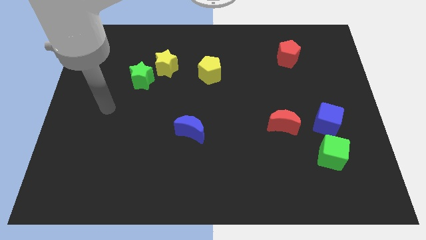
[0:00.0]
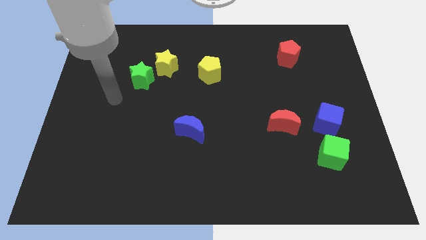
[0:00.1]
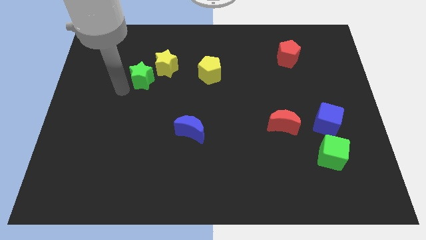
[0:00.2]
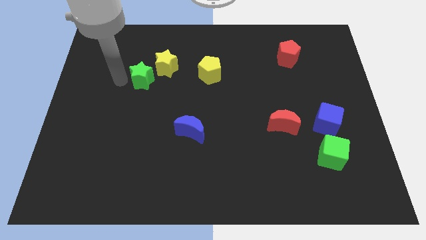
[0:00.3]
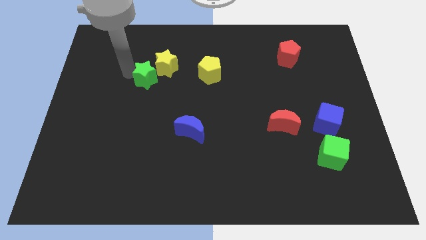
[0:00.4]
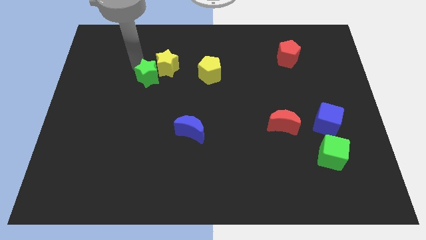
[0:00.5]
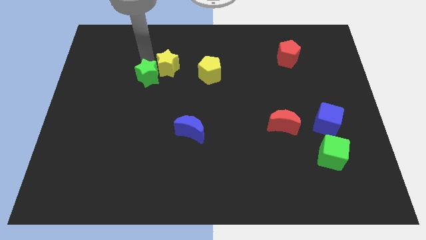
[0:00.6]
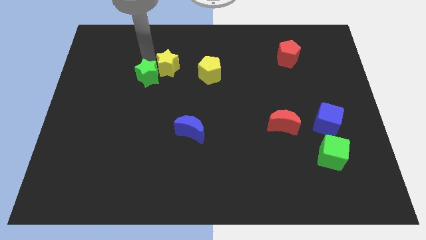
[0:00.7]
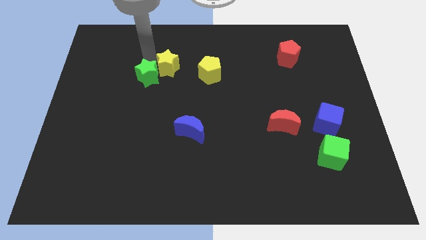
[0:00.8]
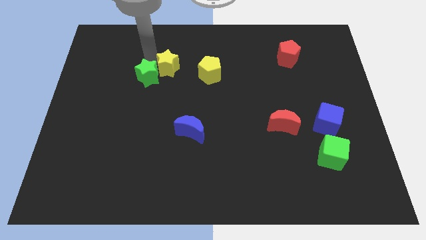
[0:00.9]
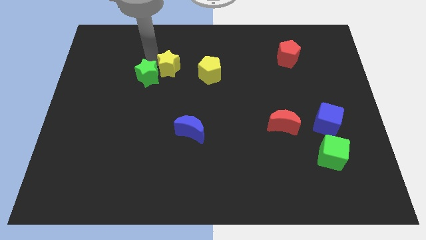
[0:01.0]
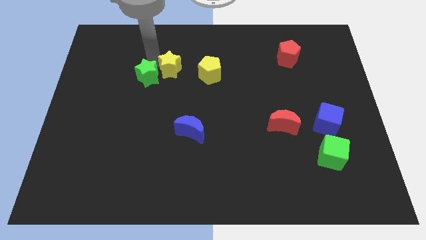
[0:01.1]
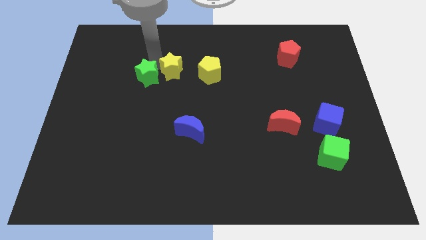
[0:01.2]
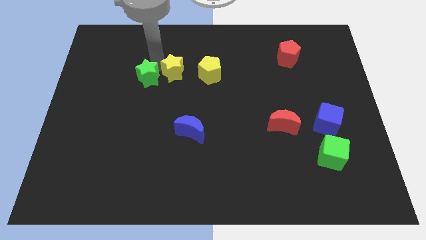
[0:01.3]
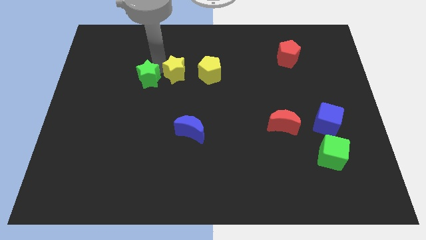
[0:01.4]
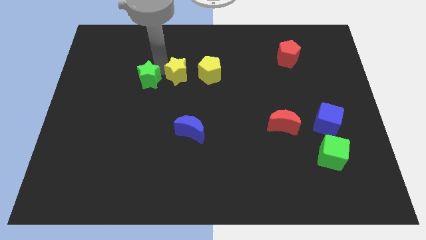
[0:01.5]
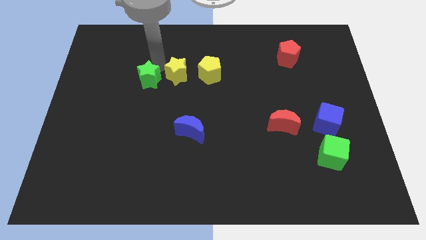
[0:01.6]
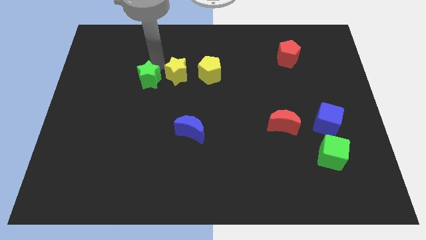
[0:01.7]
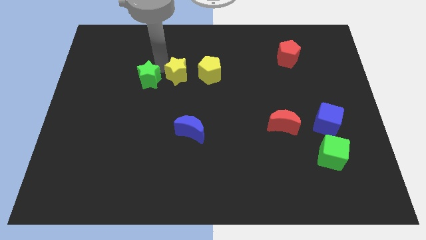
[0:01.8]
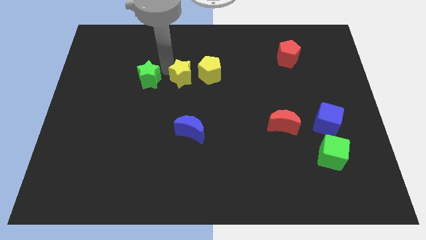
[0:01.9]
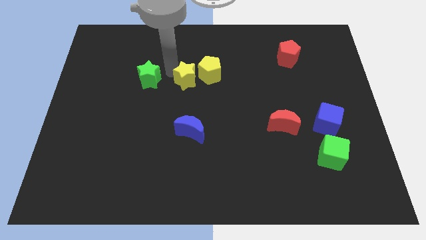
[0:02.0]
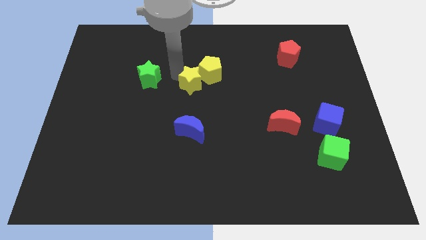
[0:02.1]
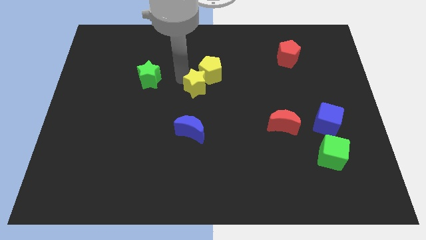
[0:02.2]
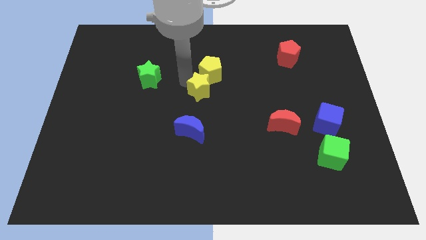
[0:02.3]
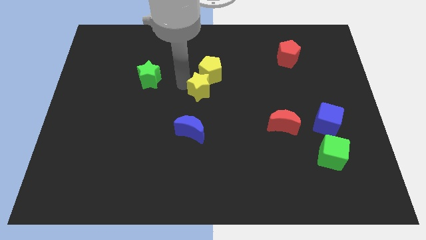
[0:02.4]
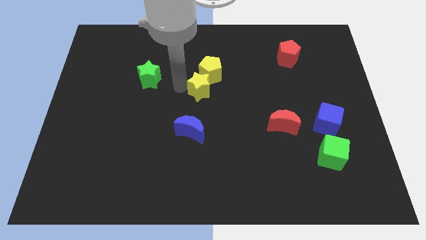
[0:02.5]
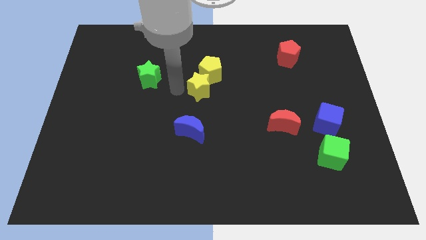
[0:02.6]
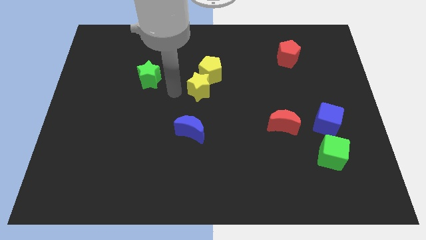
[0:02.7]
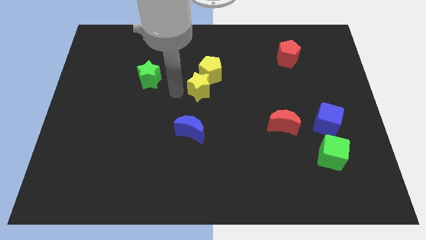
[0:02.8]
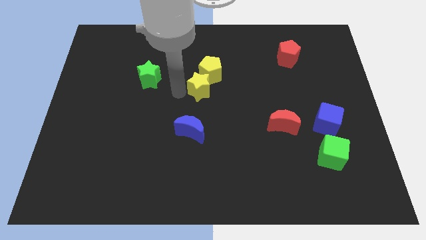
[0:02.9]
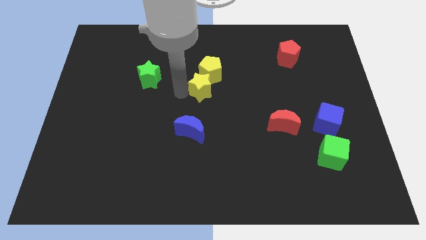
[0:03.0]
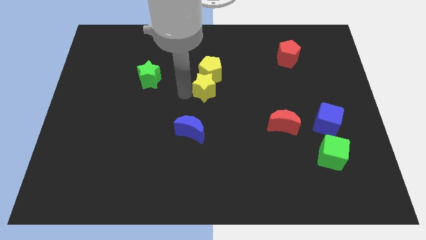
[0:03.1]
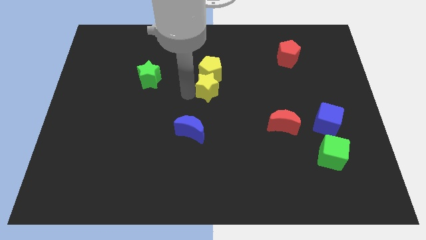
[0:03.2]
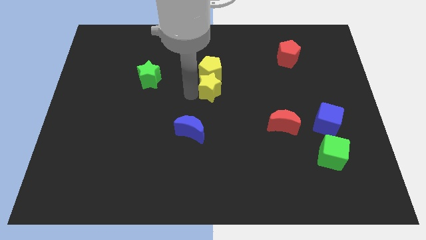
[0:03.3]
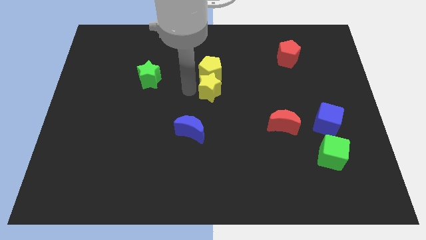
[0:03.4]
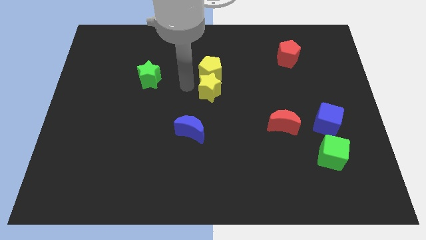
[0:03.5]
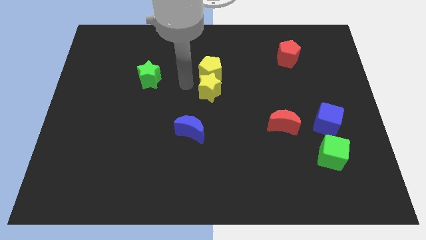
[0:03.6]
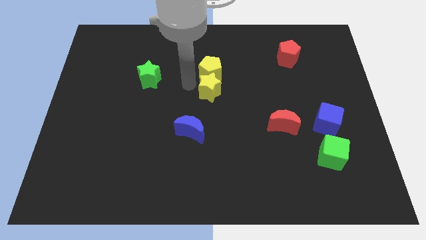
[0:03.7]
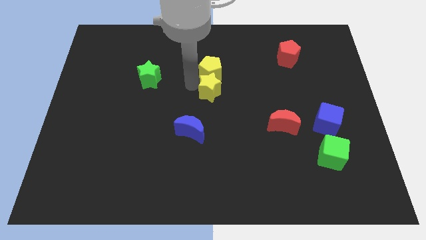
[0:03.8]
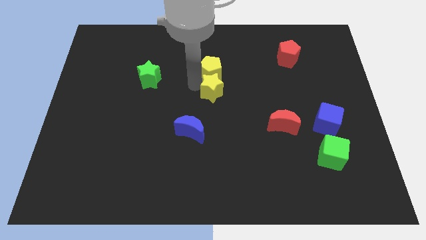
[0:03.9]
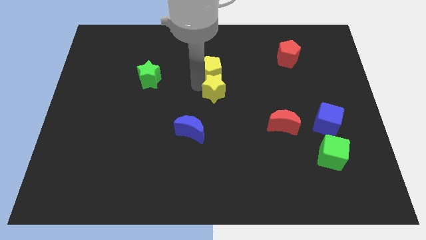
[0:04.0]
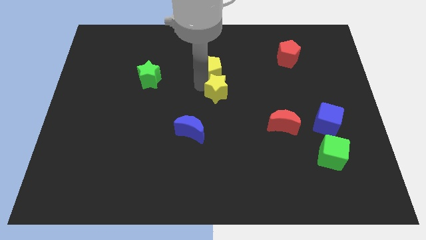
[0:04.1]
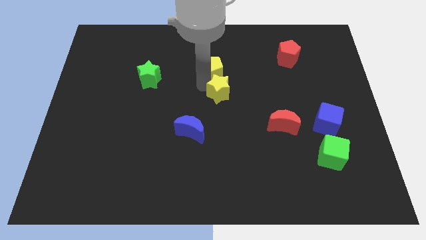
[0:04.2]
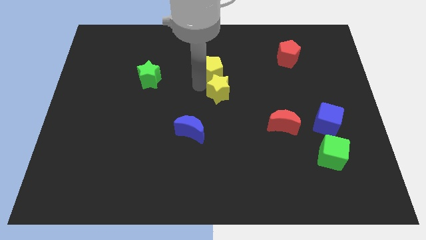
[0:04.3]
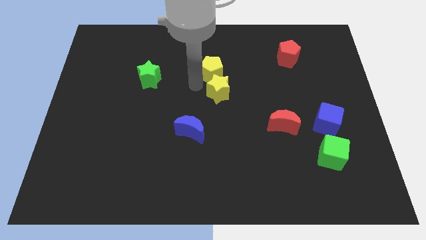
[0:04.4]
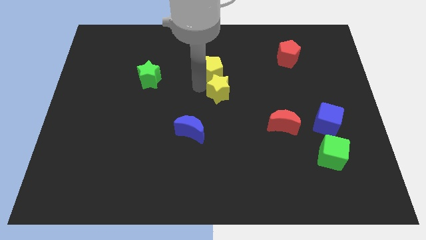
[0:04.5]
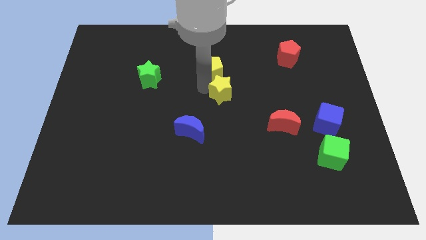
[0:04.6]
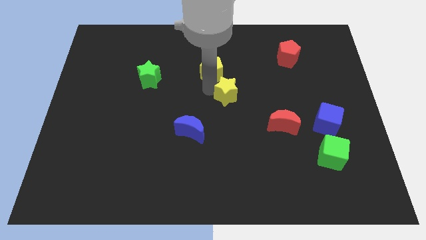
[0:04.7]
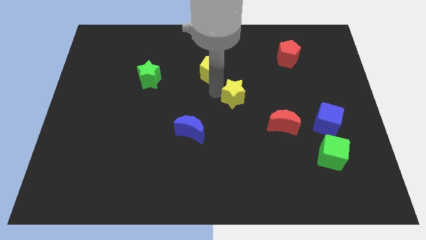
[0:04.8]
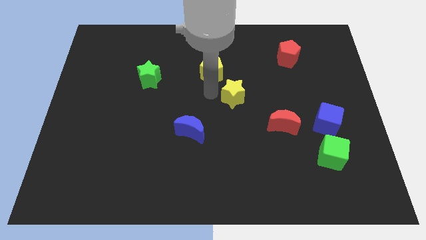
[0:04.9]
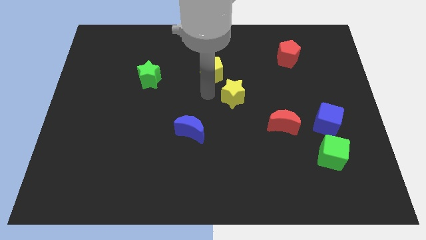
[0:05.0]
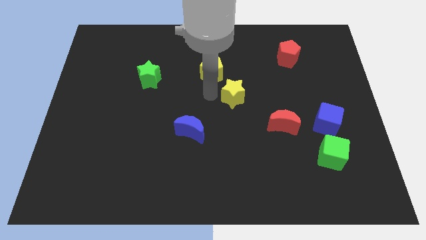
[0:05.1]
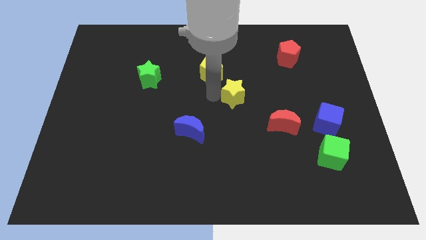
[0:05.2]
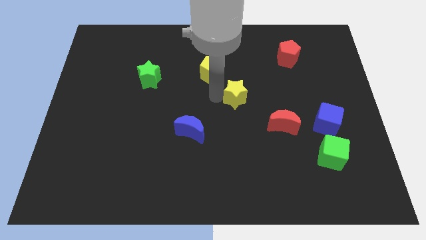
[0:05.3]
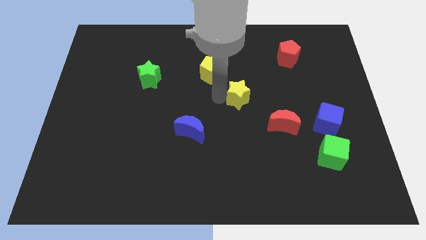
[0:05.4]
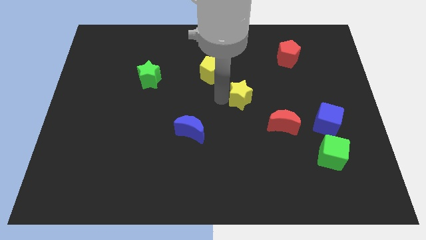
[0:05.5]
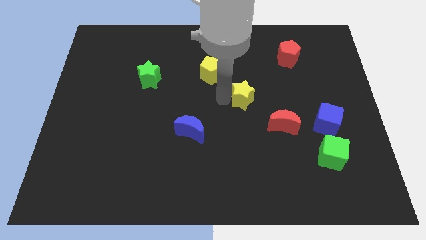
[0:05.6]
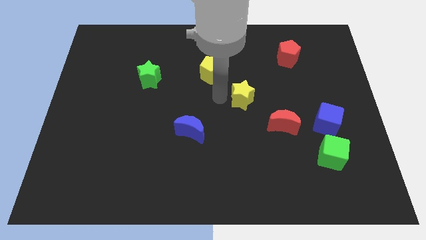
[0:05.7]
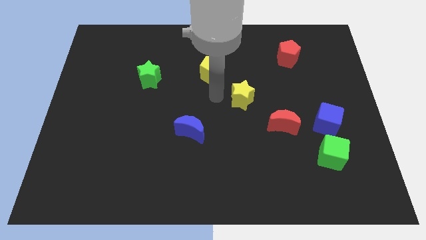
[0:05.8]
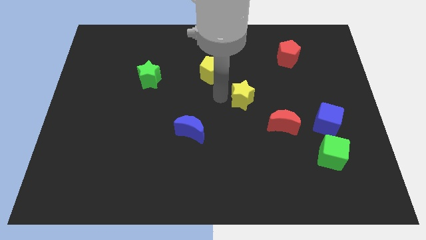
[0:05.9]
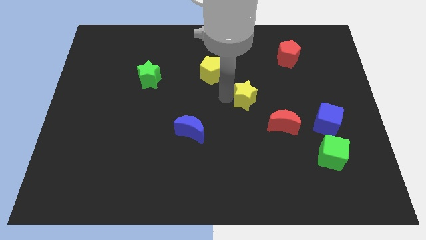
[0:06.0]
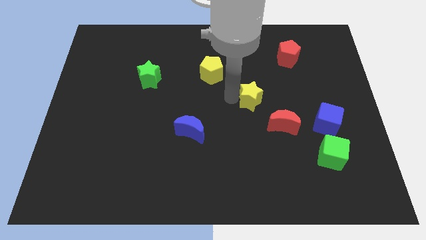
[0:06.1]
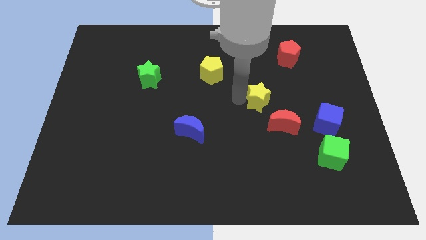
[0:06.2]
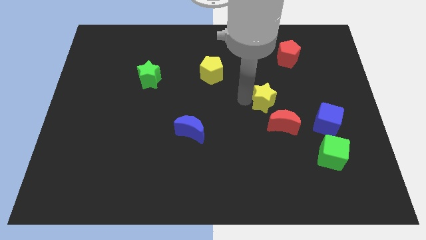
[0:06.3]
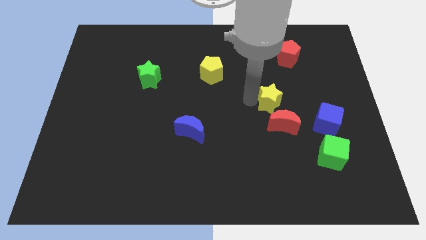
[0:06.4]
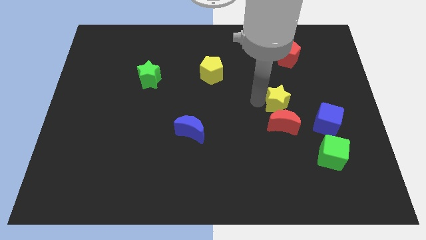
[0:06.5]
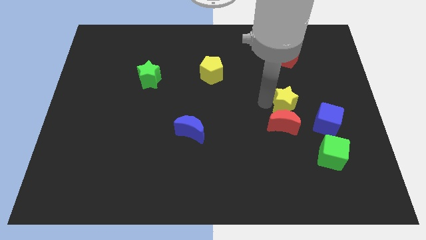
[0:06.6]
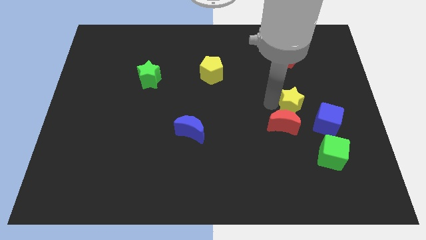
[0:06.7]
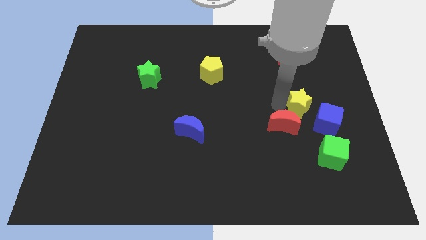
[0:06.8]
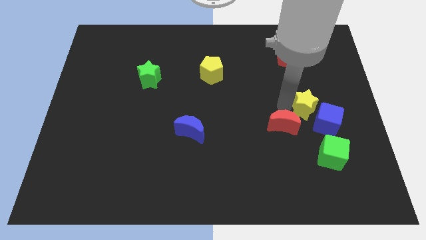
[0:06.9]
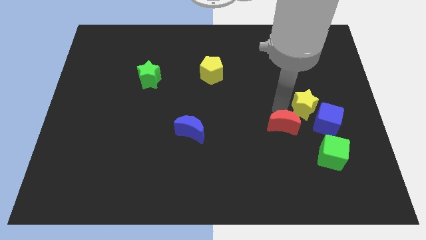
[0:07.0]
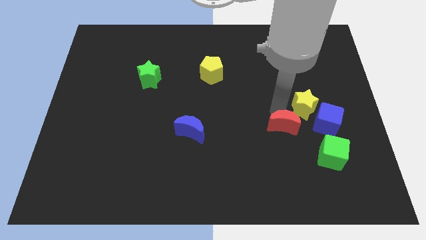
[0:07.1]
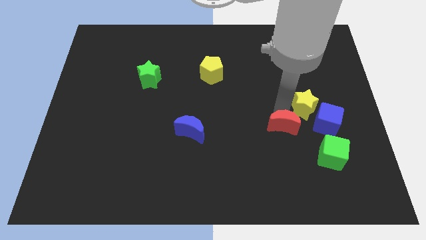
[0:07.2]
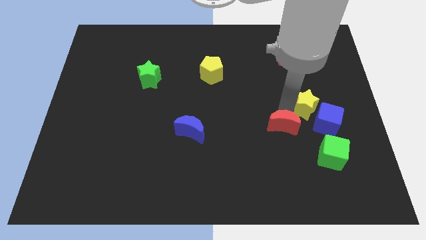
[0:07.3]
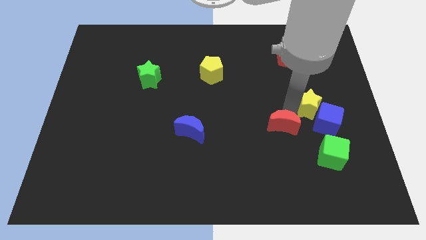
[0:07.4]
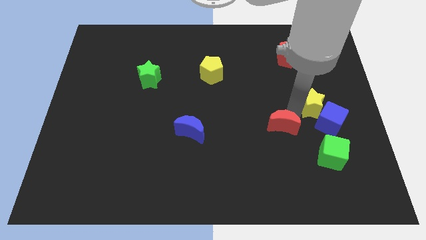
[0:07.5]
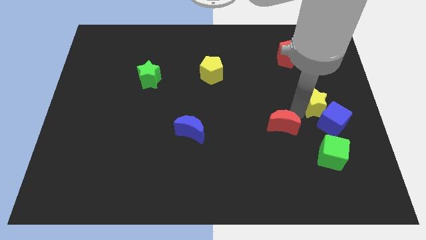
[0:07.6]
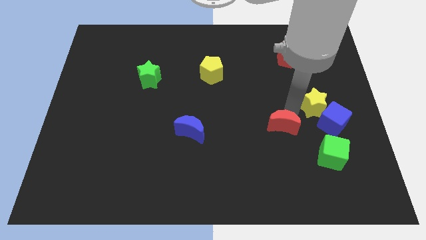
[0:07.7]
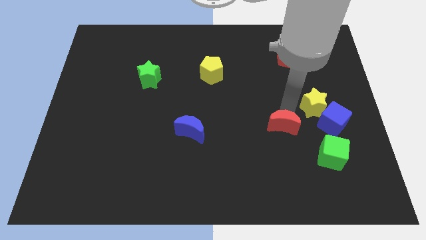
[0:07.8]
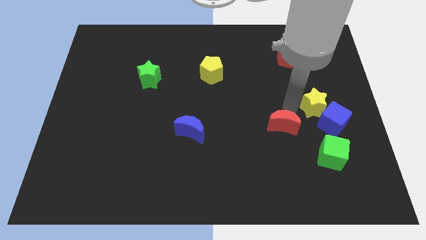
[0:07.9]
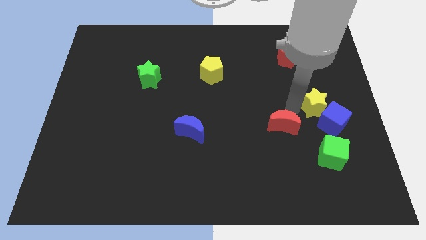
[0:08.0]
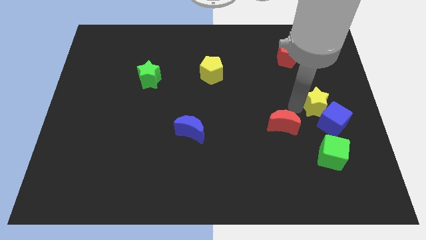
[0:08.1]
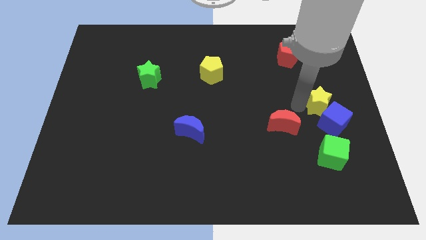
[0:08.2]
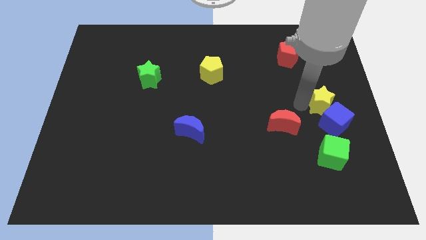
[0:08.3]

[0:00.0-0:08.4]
slide the yellow star to the right side of the board
